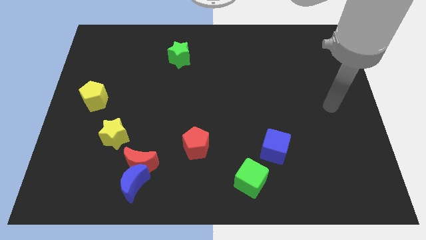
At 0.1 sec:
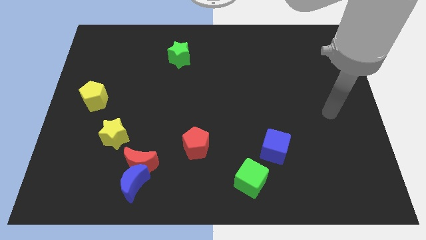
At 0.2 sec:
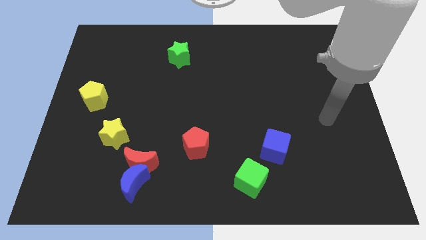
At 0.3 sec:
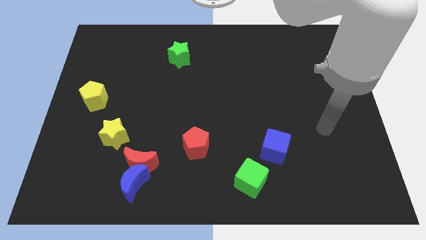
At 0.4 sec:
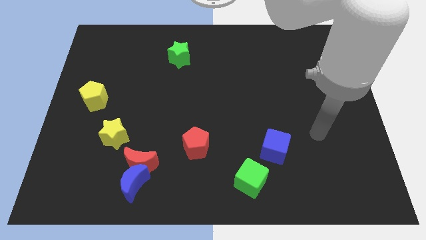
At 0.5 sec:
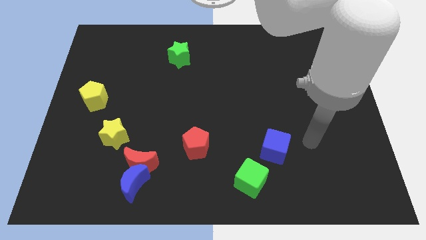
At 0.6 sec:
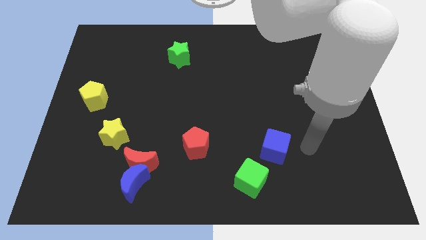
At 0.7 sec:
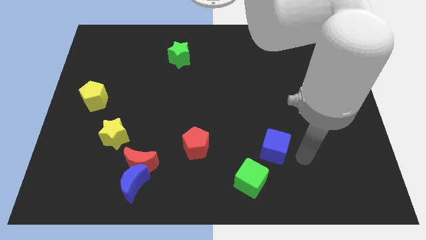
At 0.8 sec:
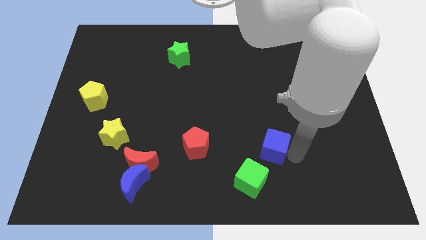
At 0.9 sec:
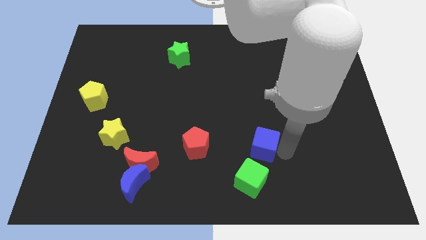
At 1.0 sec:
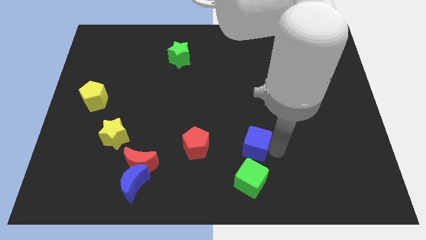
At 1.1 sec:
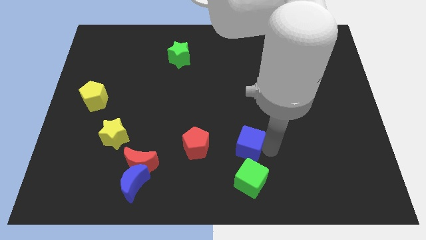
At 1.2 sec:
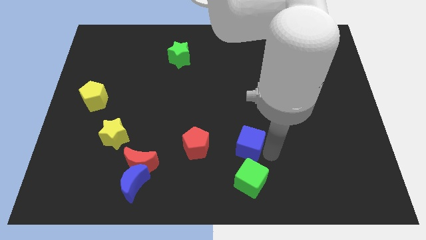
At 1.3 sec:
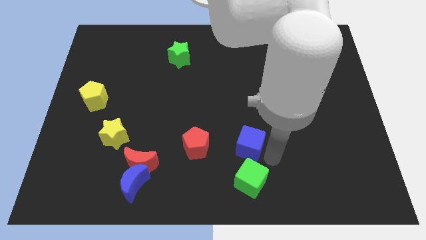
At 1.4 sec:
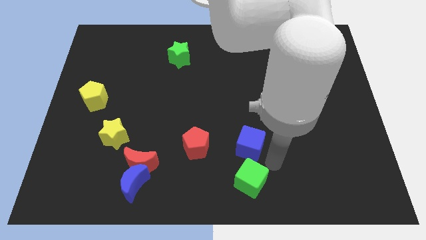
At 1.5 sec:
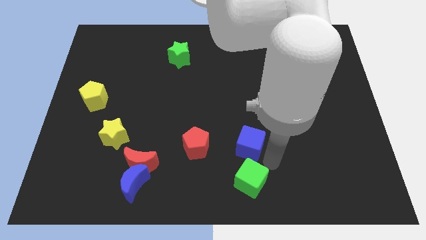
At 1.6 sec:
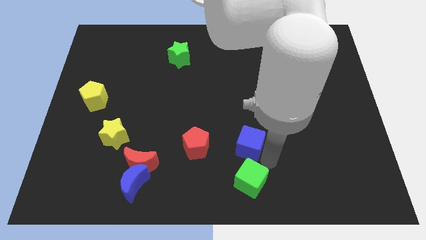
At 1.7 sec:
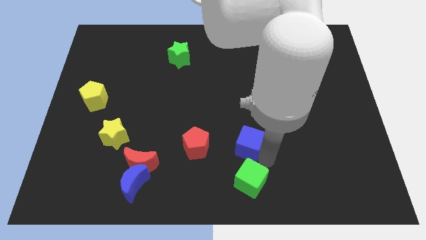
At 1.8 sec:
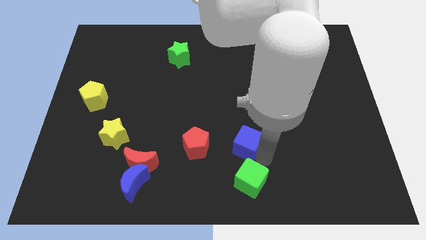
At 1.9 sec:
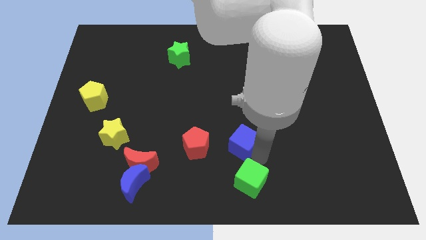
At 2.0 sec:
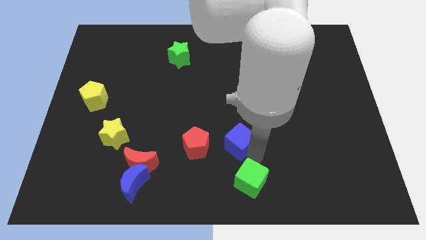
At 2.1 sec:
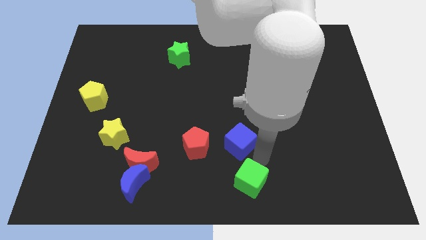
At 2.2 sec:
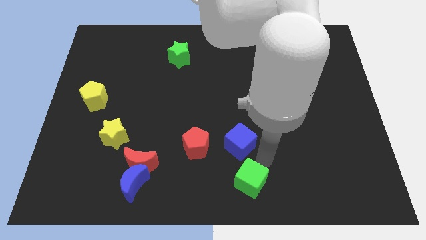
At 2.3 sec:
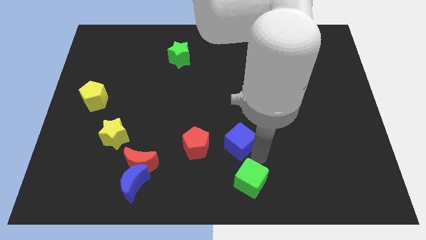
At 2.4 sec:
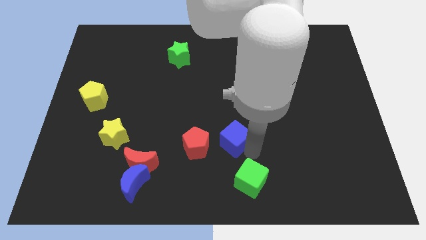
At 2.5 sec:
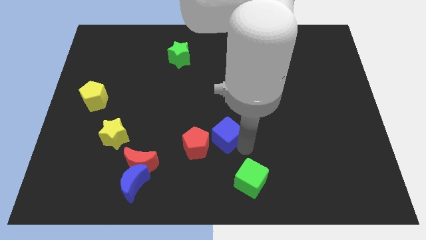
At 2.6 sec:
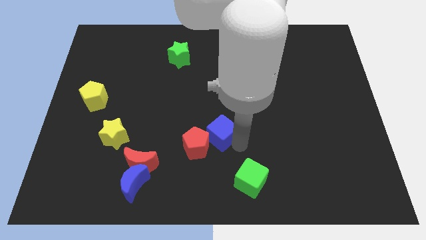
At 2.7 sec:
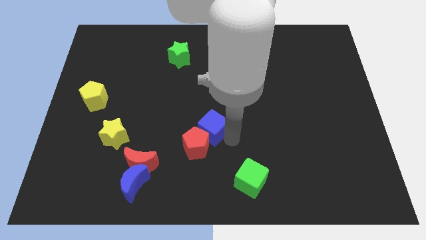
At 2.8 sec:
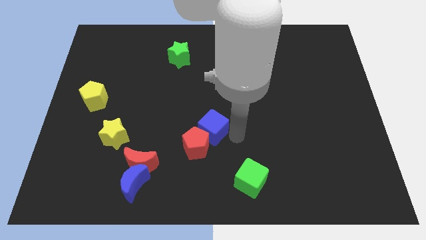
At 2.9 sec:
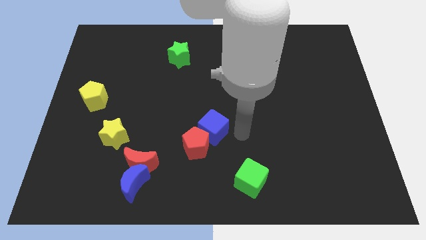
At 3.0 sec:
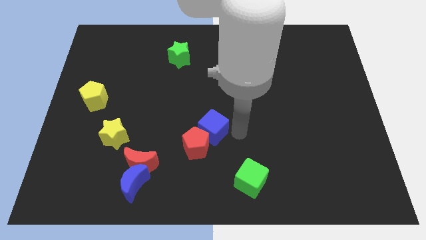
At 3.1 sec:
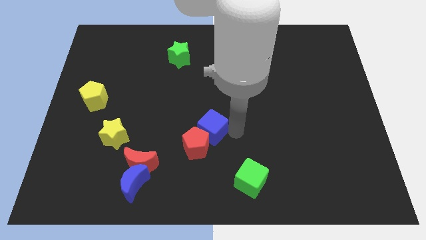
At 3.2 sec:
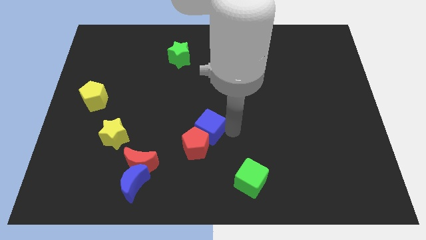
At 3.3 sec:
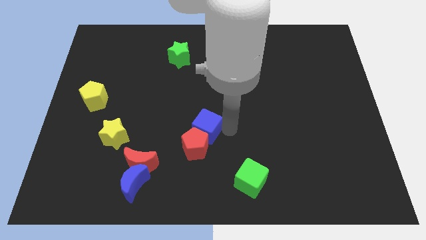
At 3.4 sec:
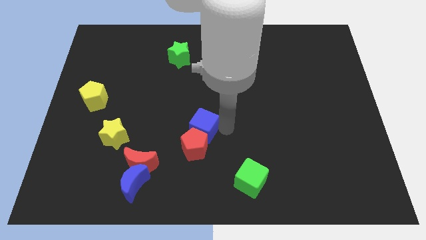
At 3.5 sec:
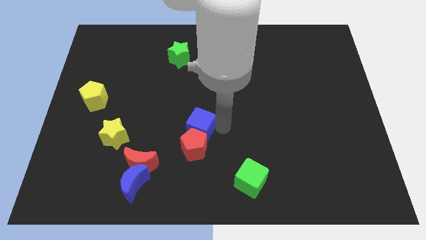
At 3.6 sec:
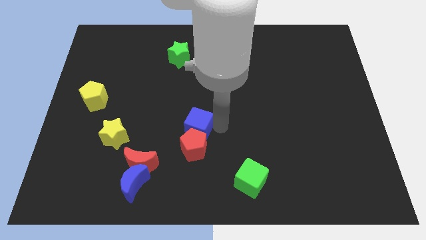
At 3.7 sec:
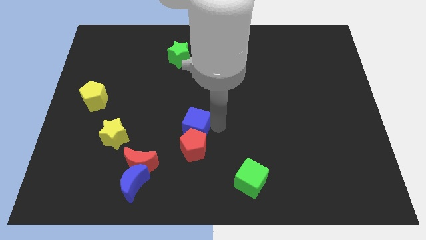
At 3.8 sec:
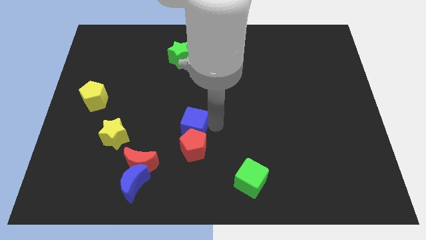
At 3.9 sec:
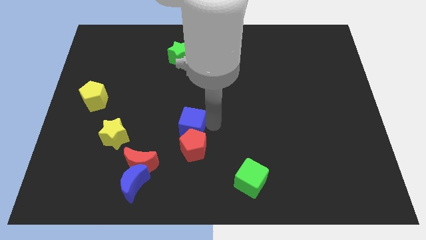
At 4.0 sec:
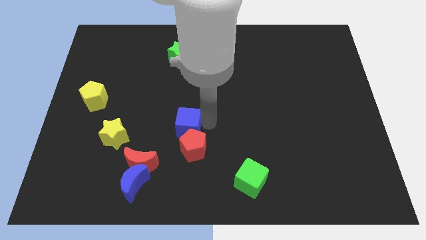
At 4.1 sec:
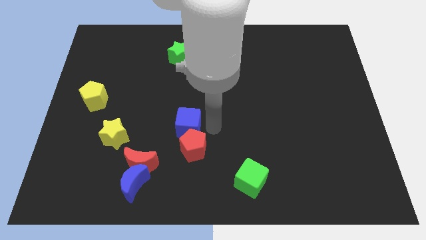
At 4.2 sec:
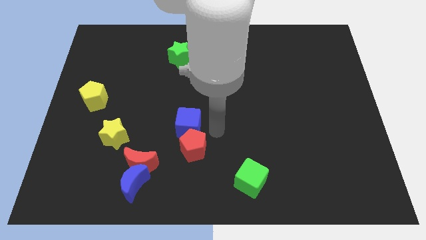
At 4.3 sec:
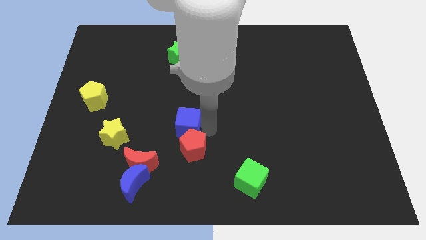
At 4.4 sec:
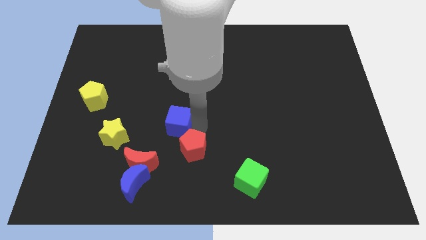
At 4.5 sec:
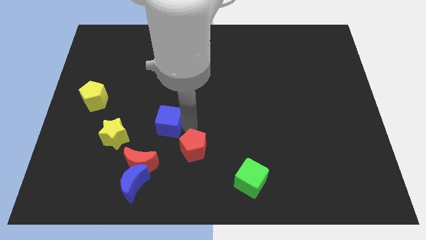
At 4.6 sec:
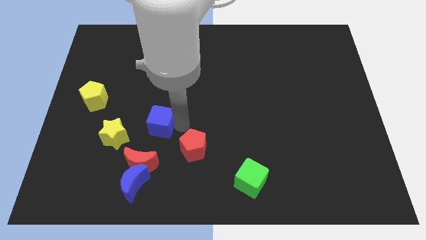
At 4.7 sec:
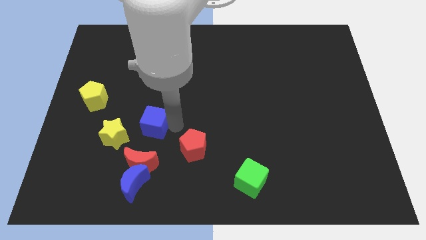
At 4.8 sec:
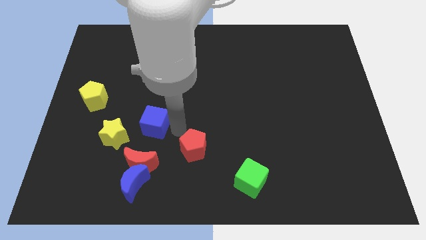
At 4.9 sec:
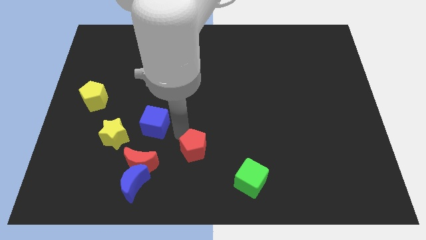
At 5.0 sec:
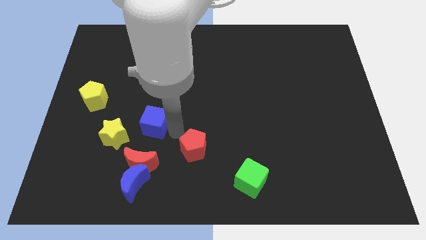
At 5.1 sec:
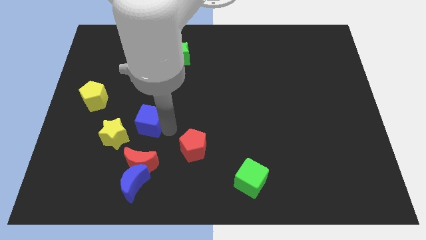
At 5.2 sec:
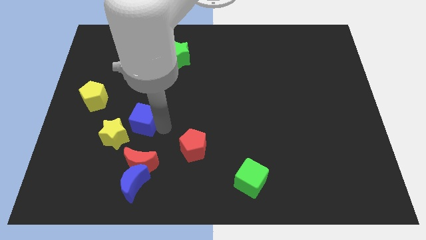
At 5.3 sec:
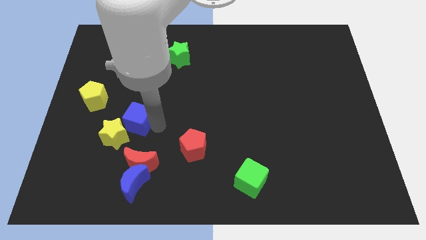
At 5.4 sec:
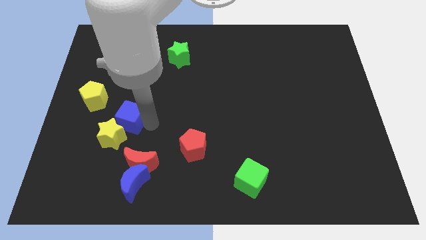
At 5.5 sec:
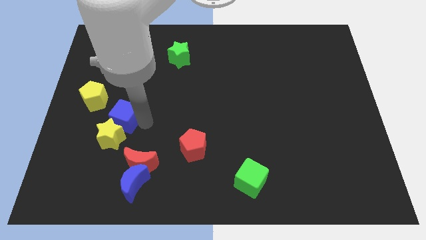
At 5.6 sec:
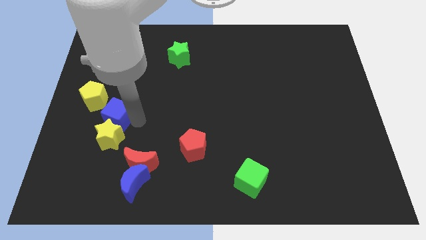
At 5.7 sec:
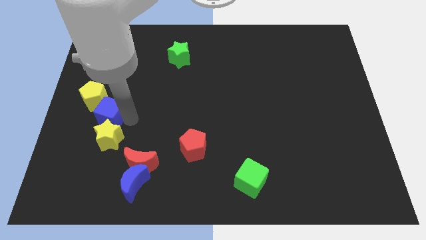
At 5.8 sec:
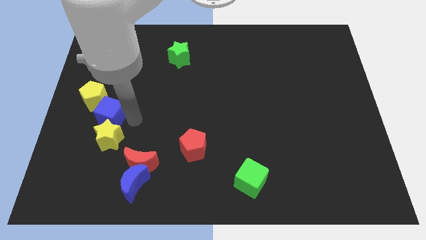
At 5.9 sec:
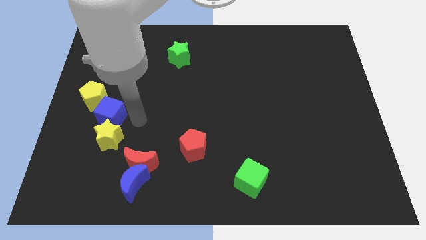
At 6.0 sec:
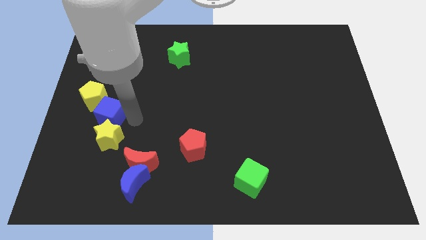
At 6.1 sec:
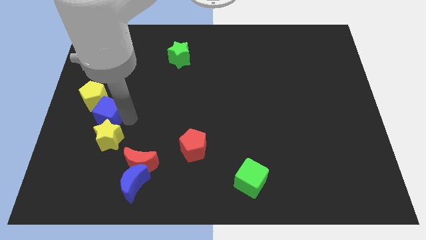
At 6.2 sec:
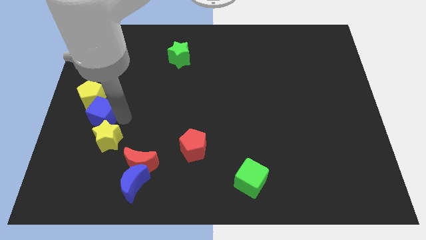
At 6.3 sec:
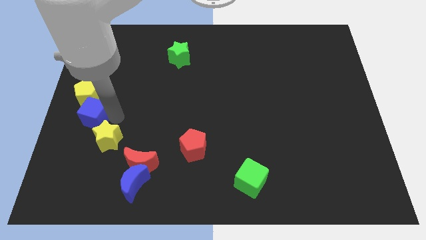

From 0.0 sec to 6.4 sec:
slide the blue cube to the center left
